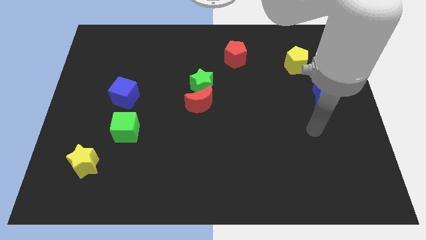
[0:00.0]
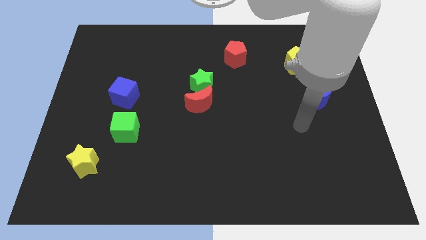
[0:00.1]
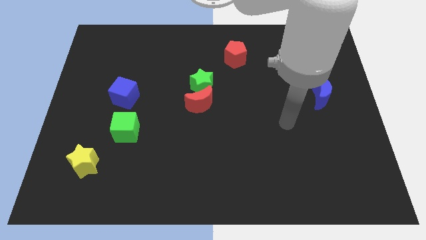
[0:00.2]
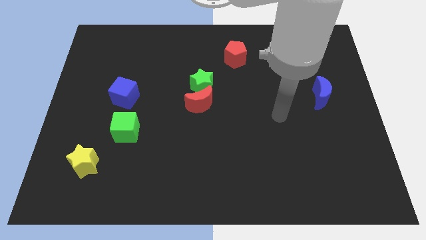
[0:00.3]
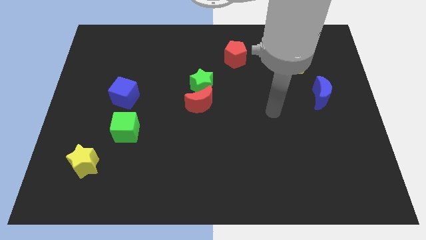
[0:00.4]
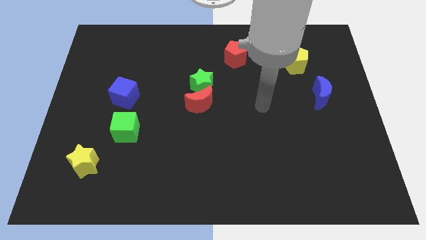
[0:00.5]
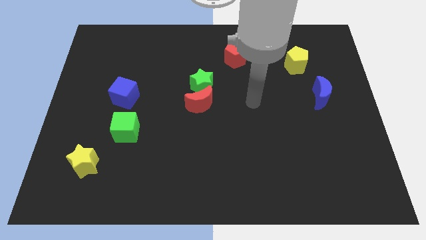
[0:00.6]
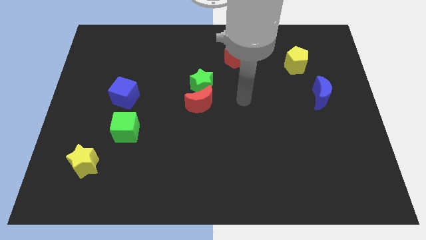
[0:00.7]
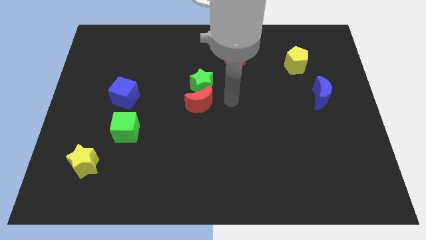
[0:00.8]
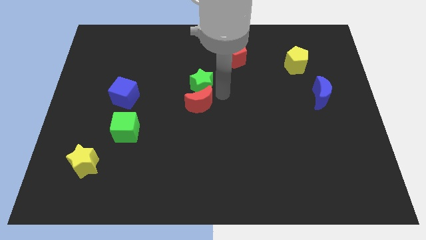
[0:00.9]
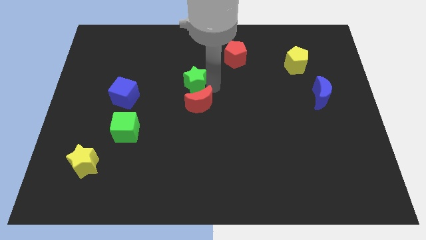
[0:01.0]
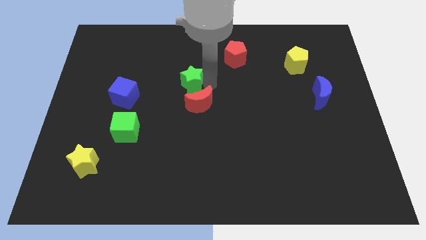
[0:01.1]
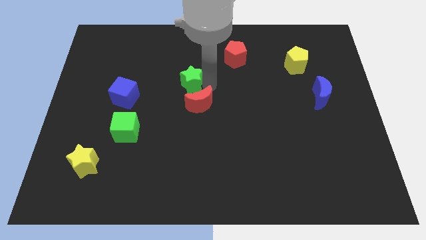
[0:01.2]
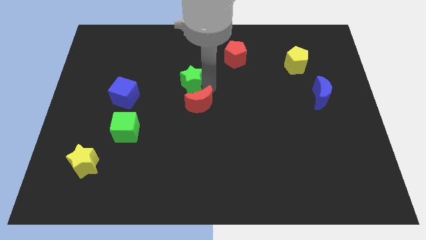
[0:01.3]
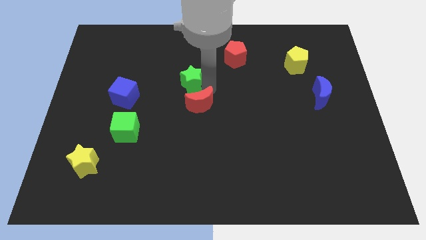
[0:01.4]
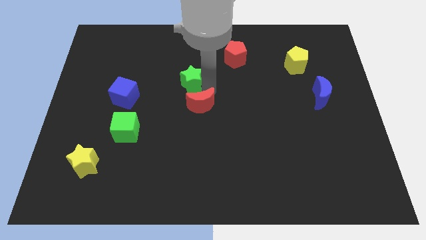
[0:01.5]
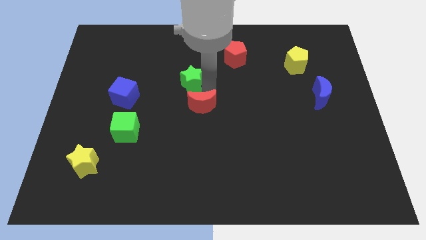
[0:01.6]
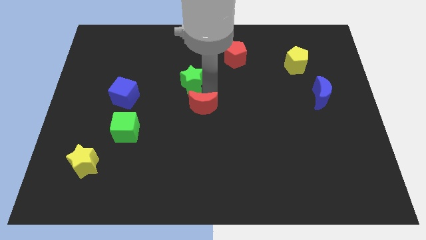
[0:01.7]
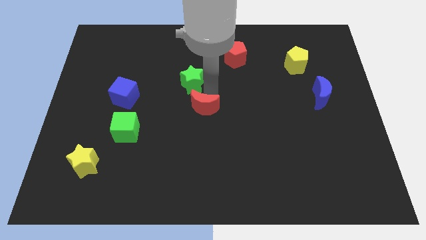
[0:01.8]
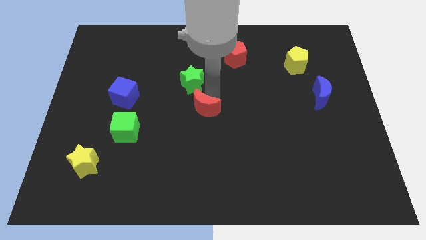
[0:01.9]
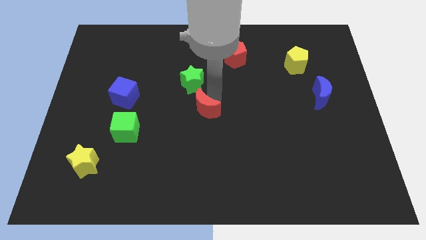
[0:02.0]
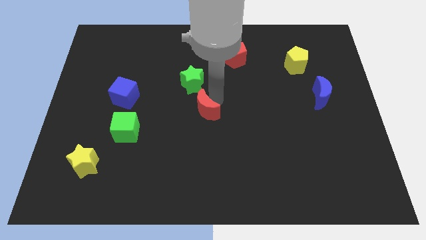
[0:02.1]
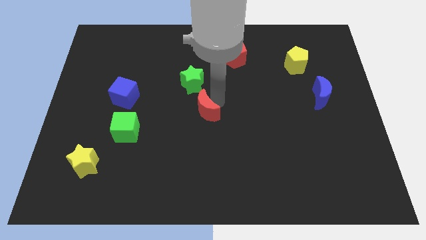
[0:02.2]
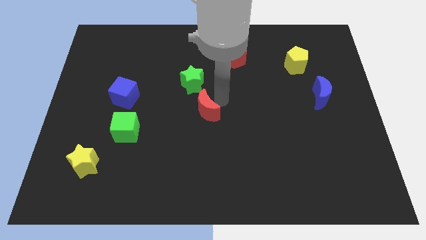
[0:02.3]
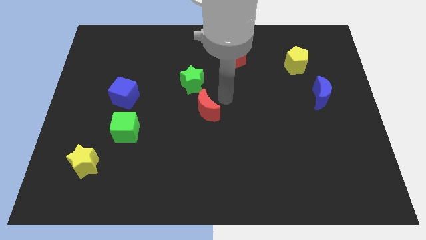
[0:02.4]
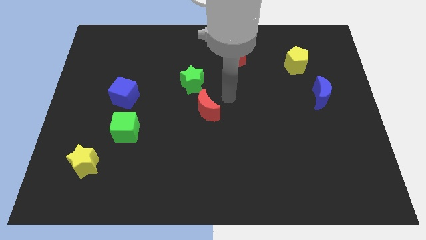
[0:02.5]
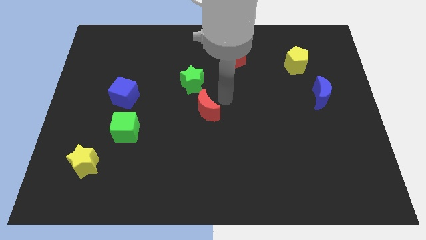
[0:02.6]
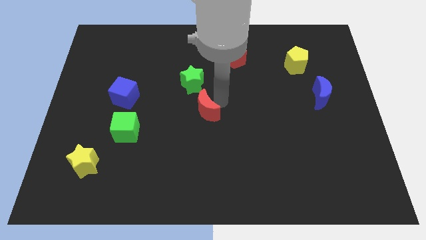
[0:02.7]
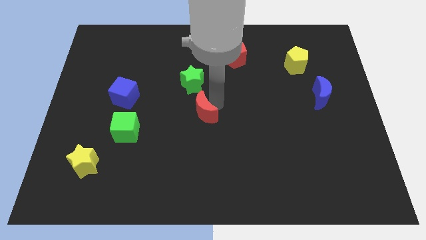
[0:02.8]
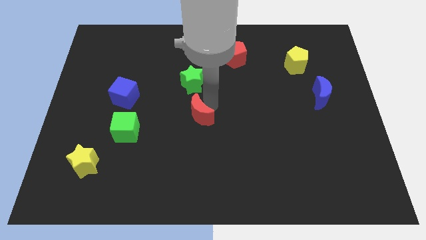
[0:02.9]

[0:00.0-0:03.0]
separate the red moon from the green star

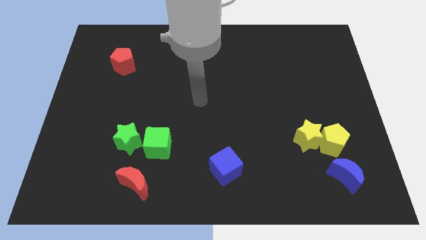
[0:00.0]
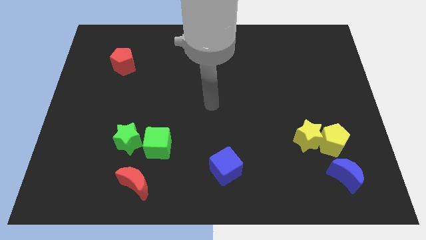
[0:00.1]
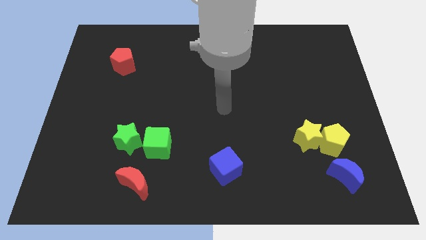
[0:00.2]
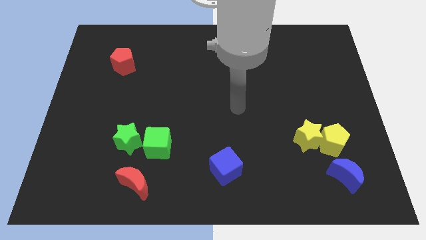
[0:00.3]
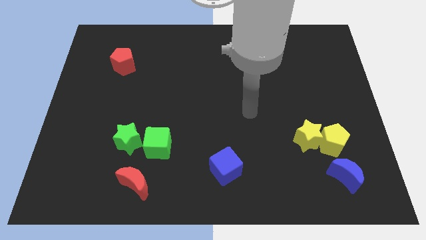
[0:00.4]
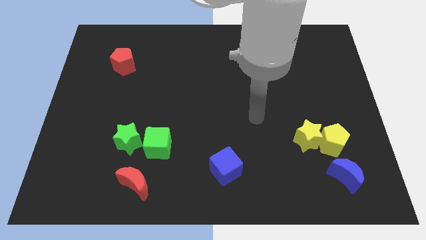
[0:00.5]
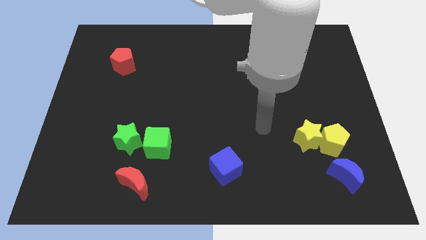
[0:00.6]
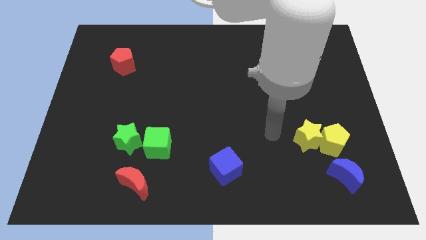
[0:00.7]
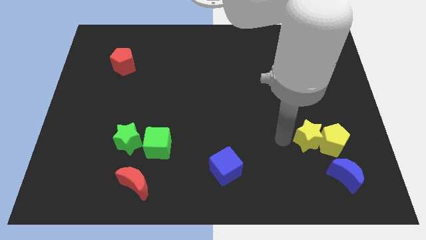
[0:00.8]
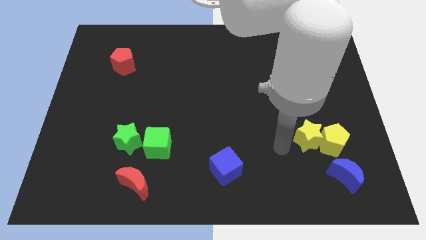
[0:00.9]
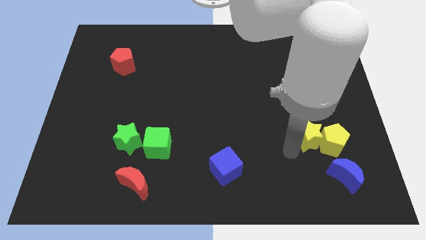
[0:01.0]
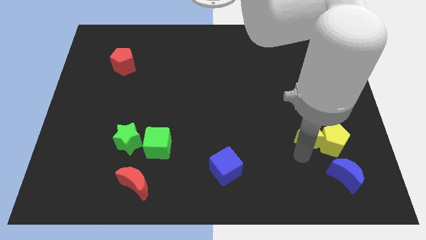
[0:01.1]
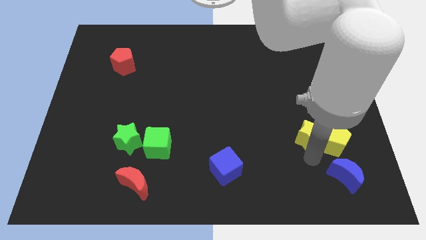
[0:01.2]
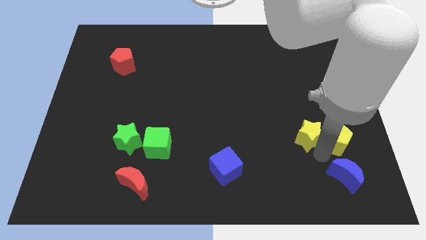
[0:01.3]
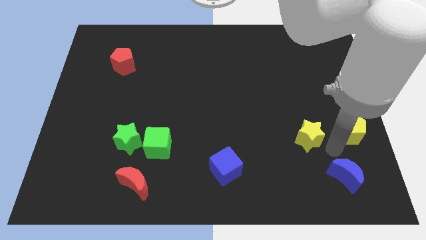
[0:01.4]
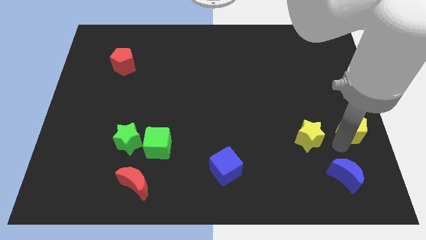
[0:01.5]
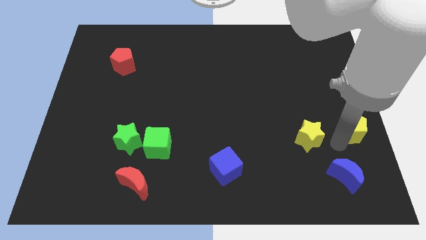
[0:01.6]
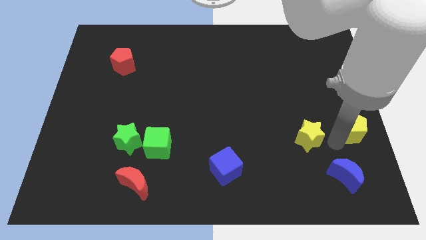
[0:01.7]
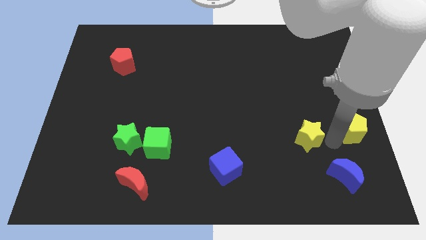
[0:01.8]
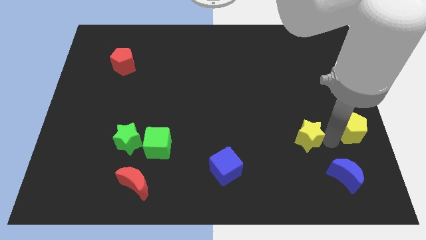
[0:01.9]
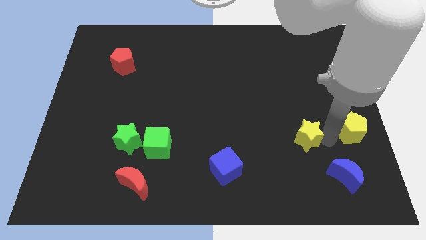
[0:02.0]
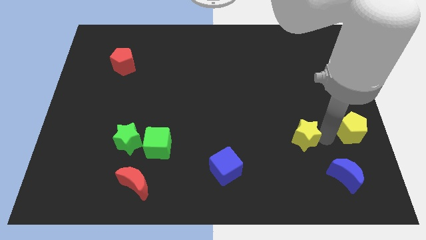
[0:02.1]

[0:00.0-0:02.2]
pull the yellow star apart from the yellow pentagon

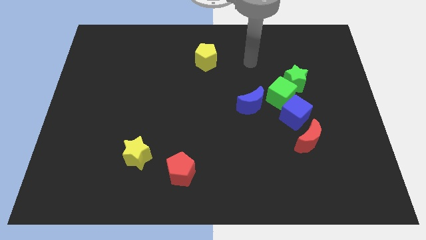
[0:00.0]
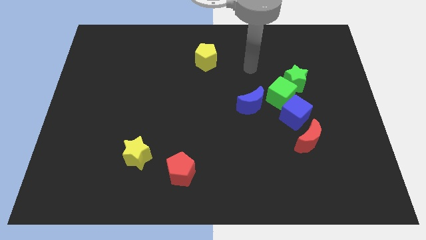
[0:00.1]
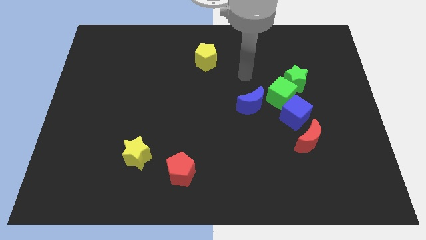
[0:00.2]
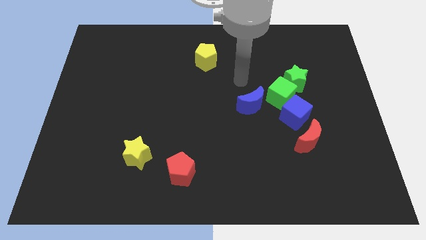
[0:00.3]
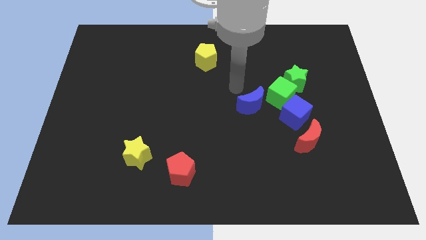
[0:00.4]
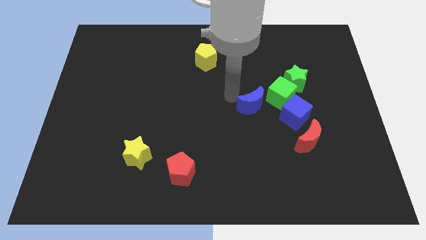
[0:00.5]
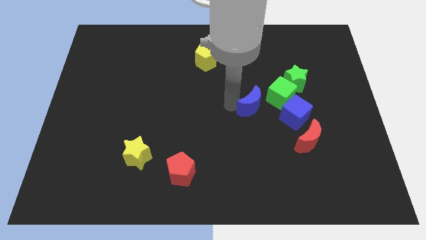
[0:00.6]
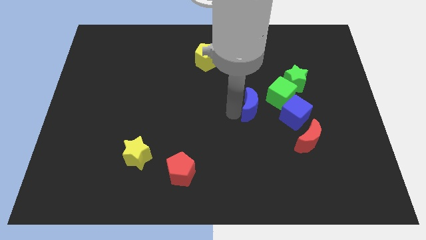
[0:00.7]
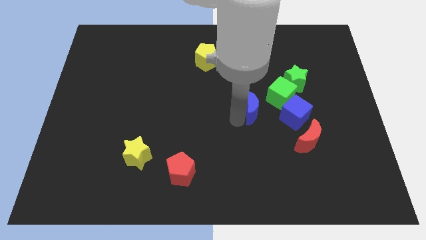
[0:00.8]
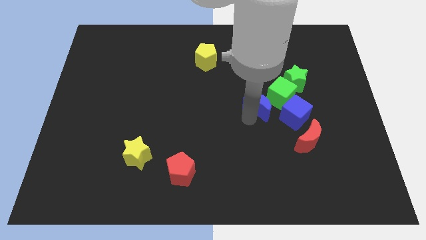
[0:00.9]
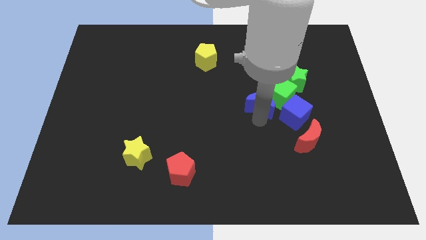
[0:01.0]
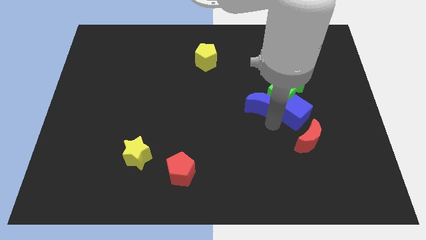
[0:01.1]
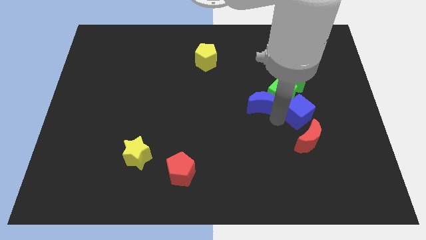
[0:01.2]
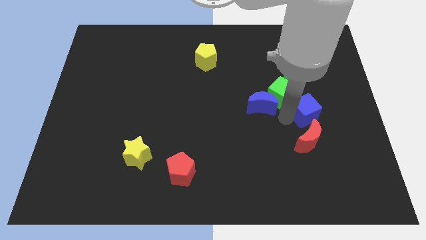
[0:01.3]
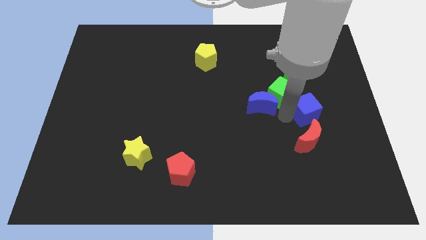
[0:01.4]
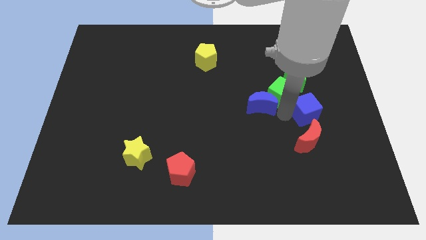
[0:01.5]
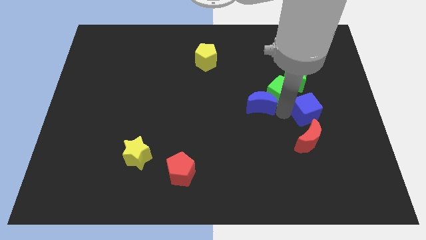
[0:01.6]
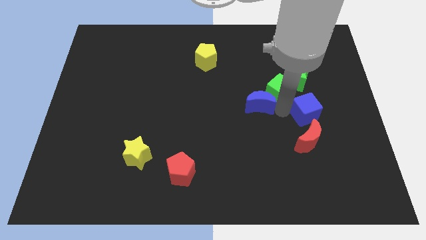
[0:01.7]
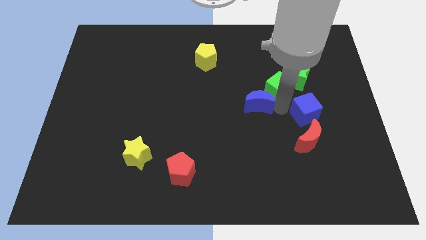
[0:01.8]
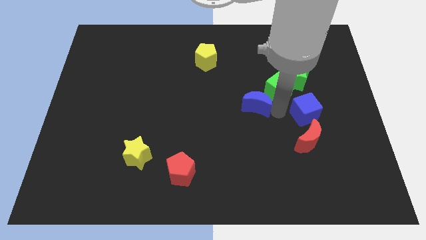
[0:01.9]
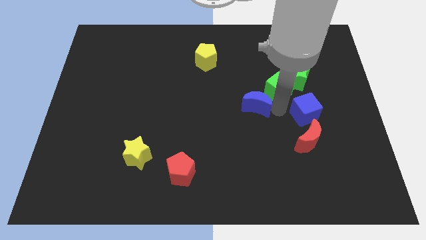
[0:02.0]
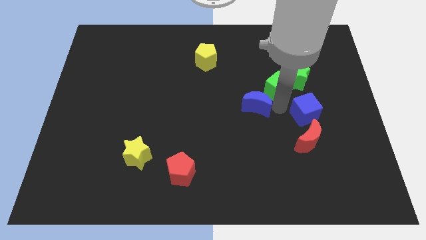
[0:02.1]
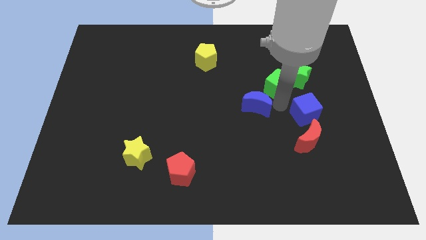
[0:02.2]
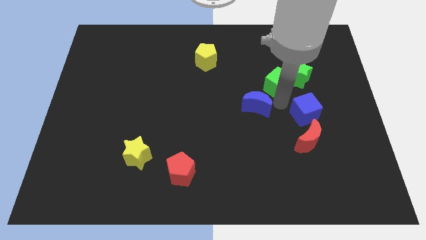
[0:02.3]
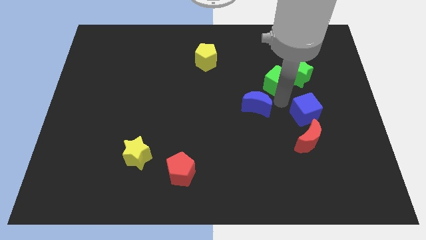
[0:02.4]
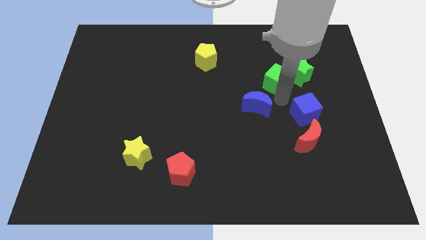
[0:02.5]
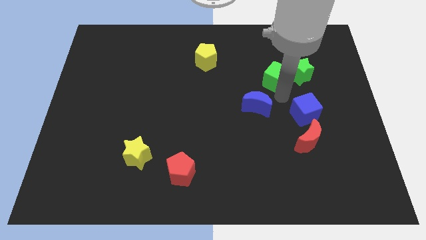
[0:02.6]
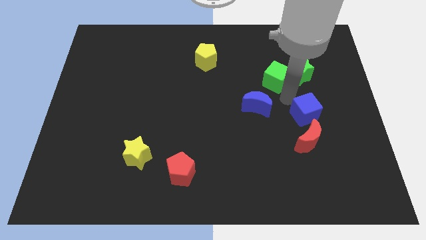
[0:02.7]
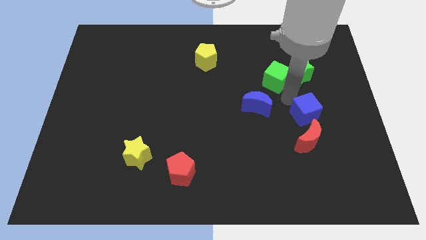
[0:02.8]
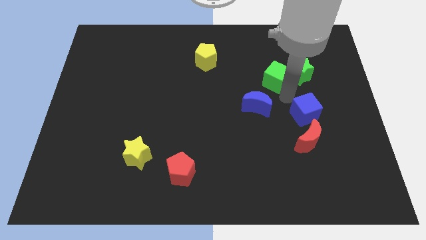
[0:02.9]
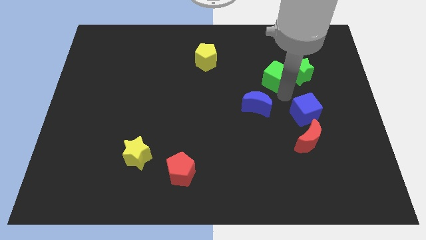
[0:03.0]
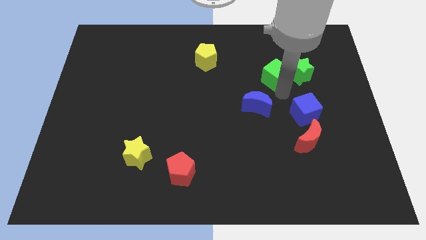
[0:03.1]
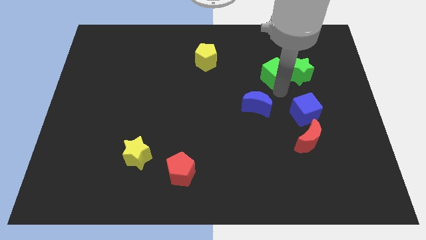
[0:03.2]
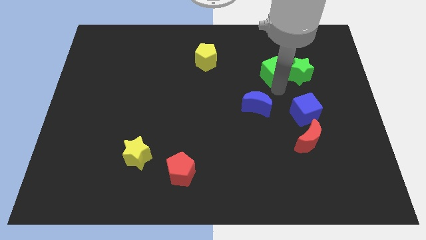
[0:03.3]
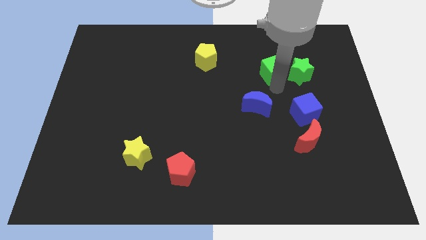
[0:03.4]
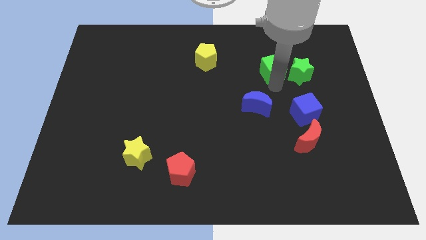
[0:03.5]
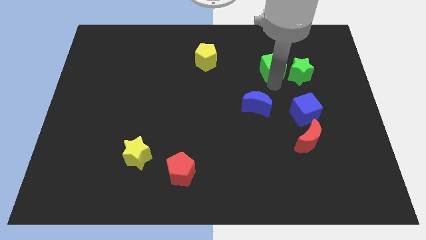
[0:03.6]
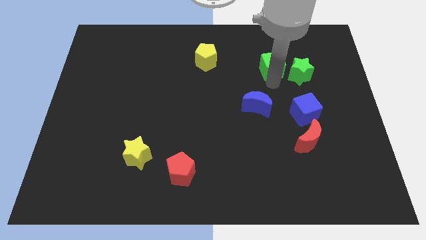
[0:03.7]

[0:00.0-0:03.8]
move the green cube away from the group of blocks

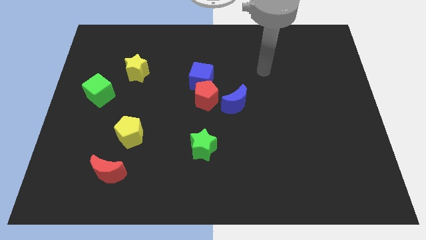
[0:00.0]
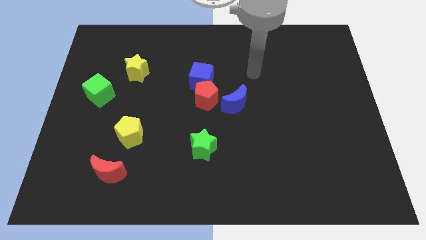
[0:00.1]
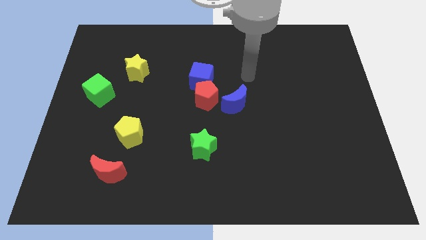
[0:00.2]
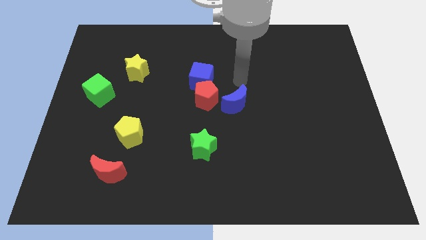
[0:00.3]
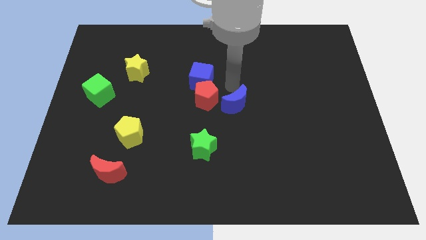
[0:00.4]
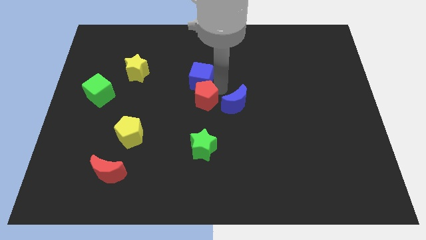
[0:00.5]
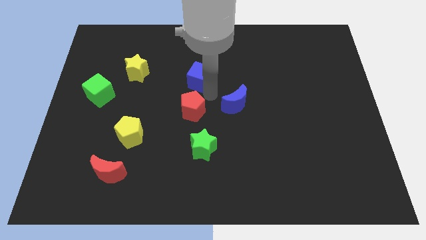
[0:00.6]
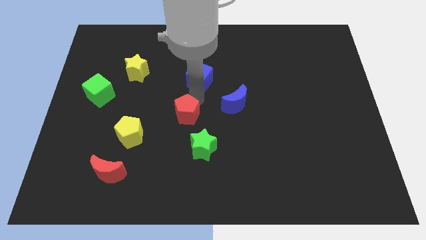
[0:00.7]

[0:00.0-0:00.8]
move the blue cube away from the red pentagon
